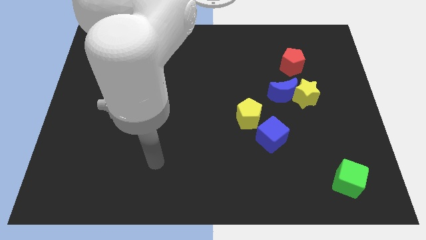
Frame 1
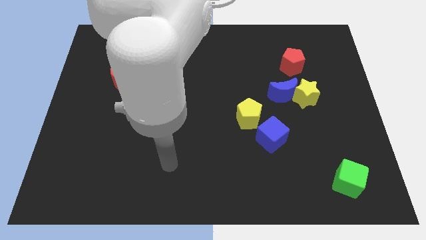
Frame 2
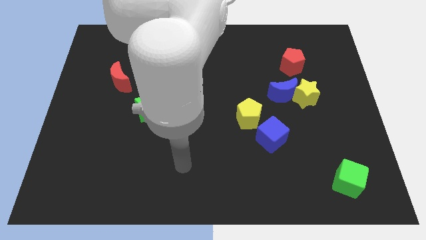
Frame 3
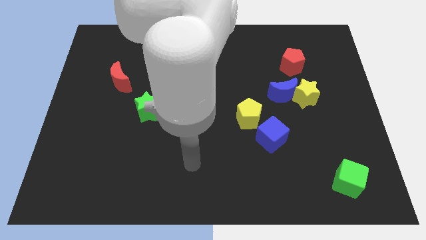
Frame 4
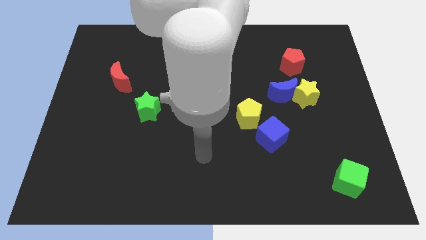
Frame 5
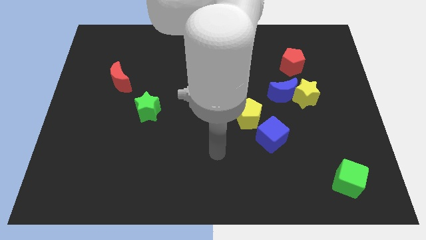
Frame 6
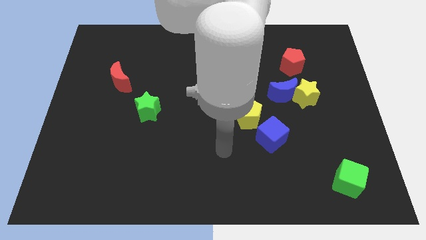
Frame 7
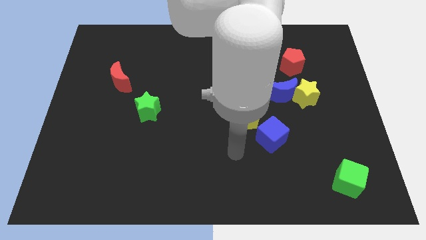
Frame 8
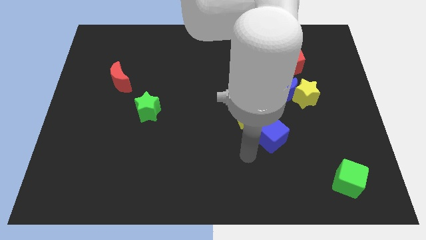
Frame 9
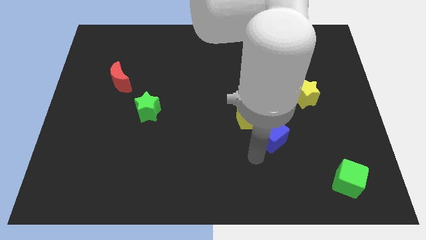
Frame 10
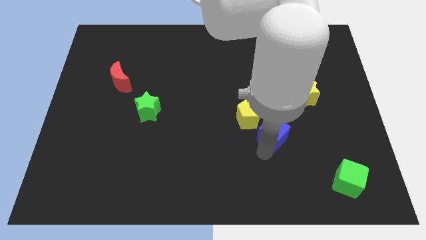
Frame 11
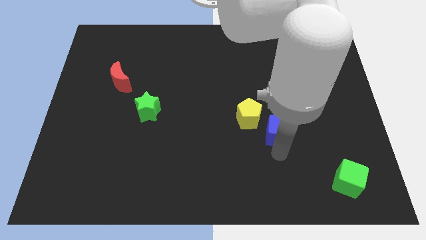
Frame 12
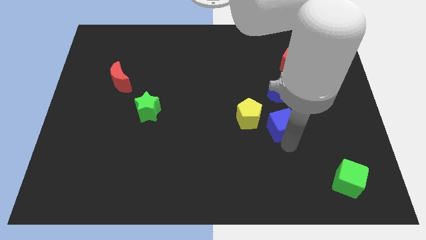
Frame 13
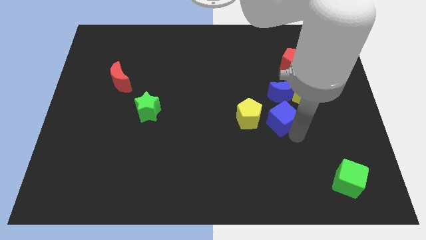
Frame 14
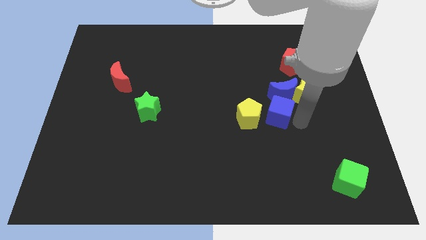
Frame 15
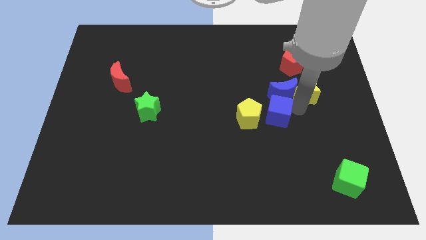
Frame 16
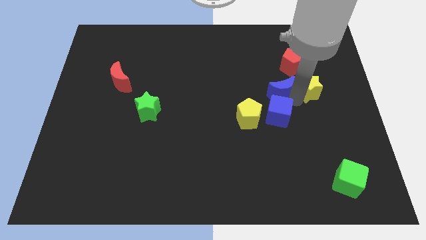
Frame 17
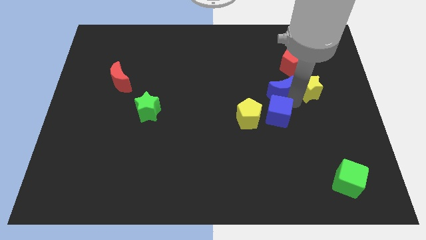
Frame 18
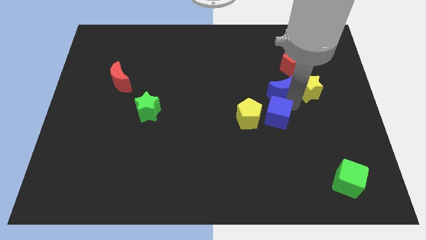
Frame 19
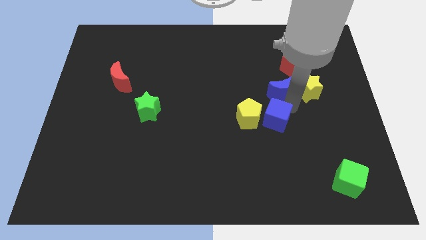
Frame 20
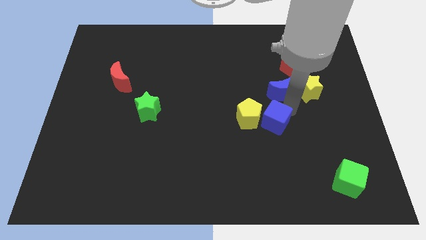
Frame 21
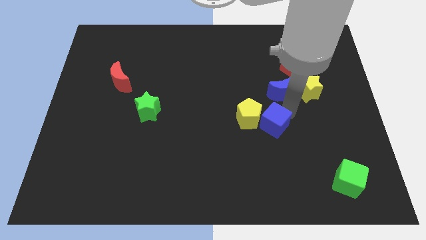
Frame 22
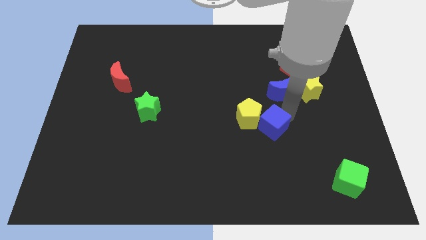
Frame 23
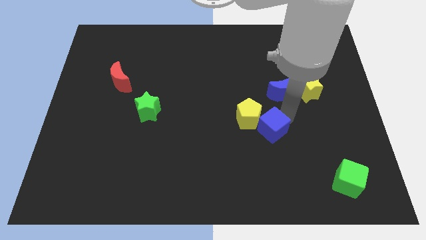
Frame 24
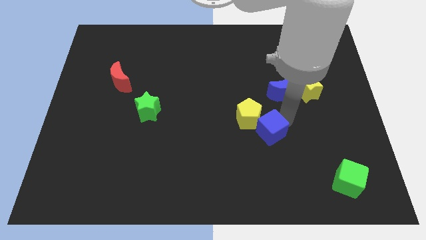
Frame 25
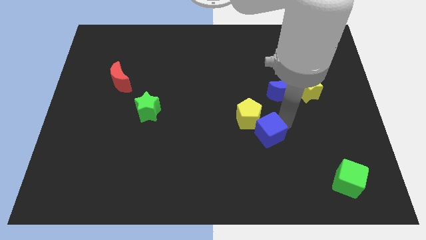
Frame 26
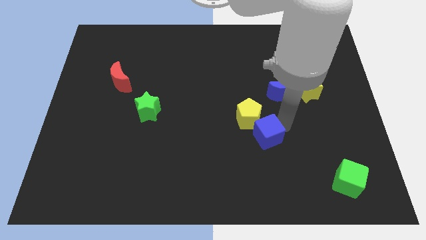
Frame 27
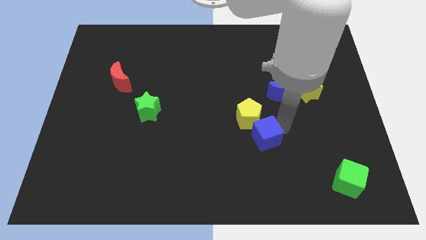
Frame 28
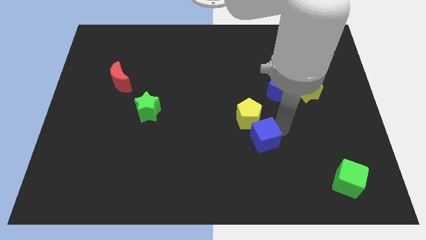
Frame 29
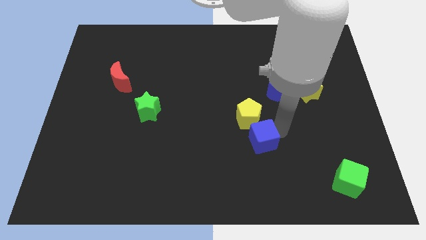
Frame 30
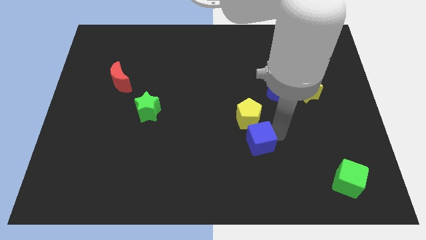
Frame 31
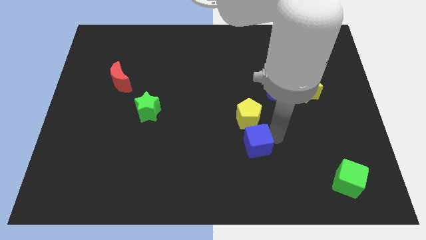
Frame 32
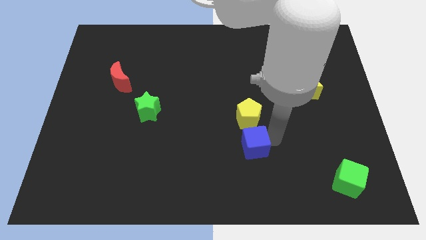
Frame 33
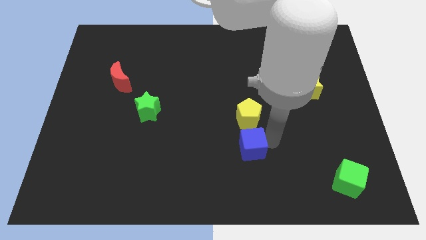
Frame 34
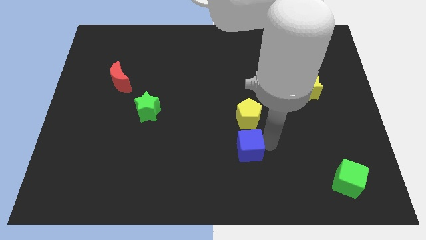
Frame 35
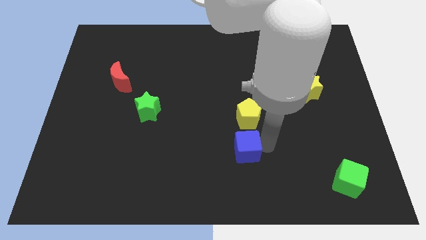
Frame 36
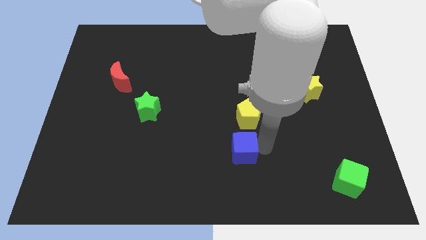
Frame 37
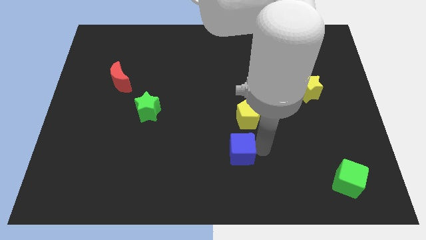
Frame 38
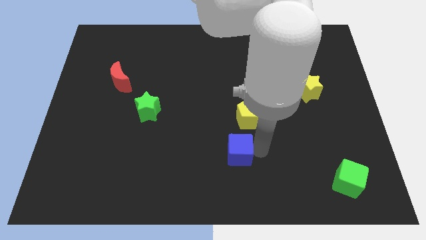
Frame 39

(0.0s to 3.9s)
slide the blue cube to the left a little

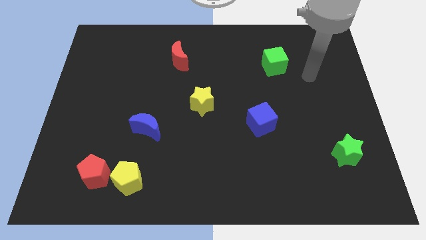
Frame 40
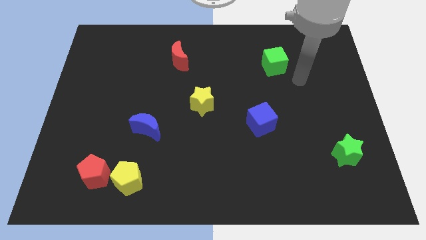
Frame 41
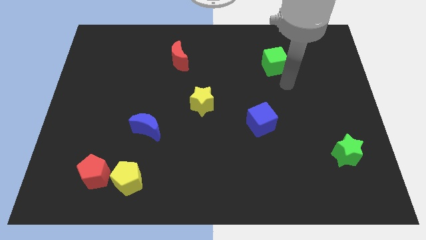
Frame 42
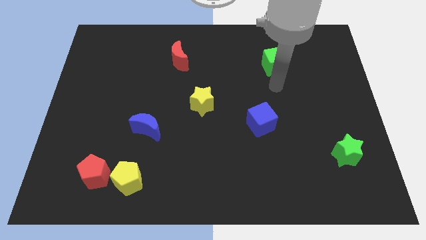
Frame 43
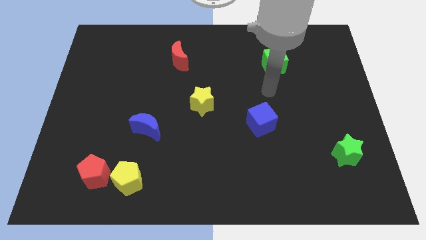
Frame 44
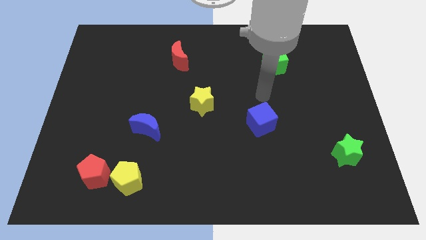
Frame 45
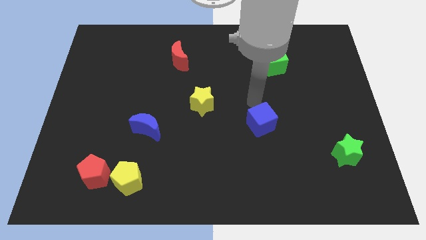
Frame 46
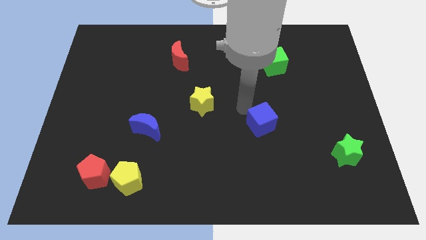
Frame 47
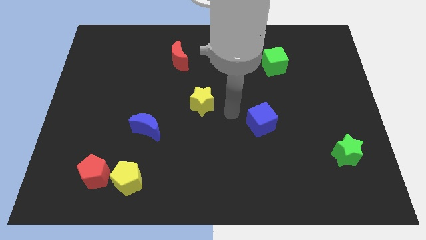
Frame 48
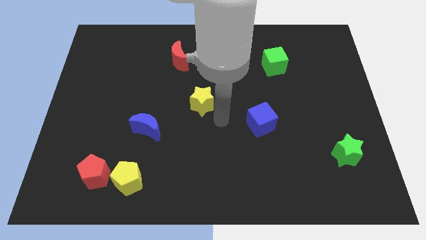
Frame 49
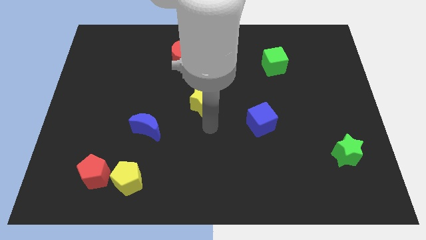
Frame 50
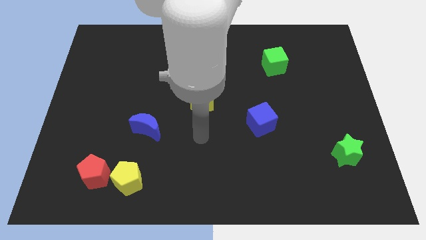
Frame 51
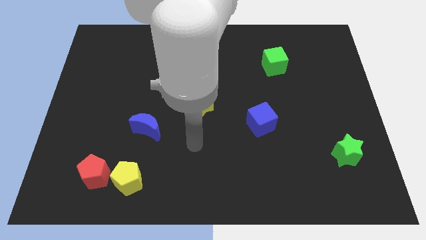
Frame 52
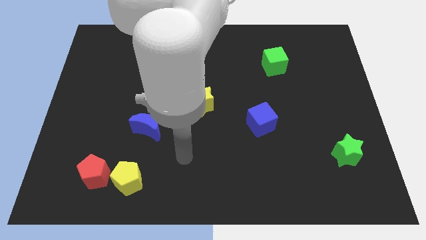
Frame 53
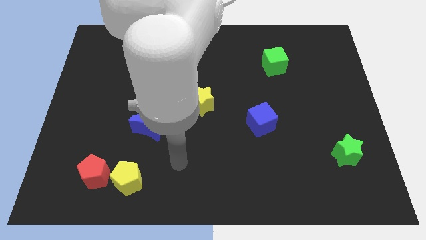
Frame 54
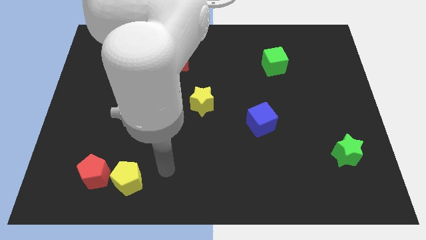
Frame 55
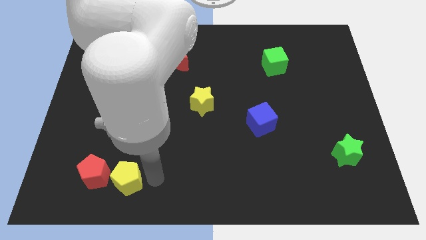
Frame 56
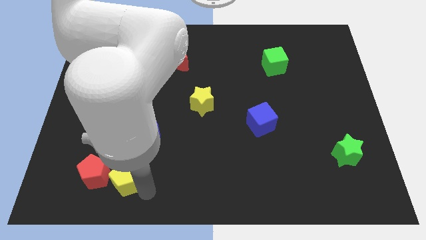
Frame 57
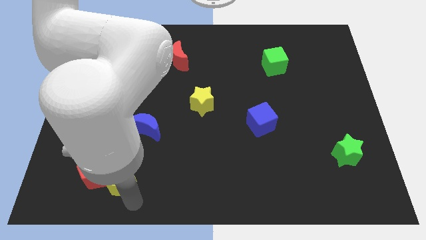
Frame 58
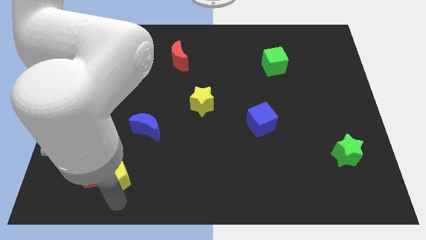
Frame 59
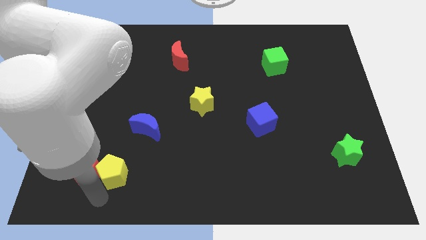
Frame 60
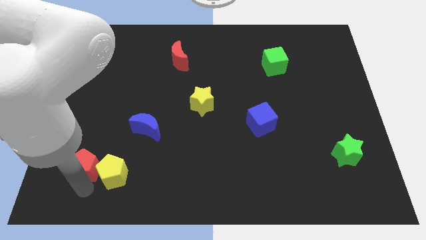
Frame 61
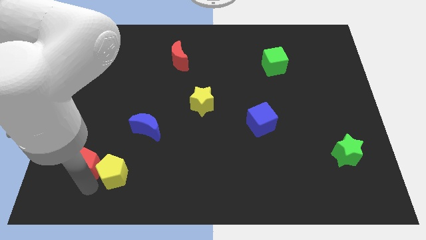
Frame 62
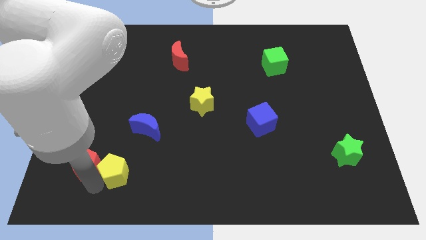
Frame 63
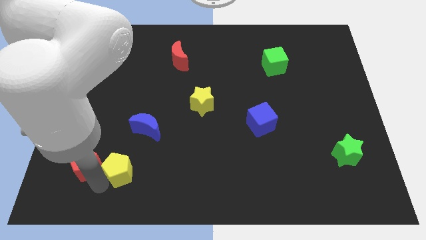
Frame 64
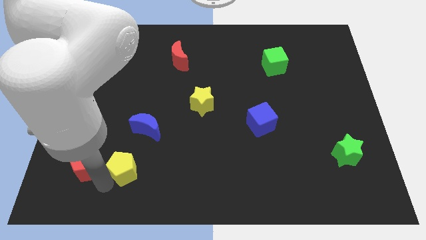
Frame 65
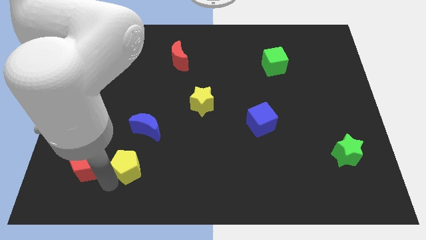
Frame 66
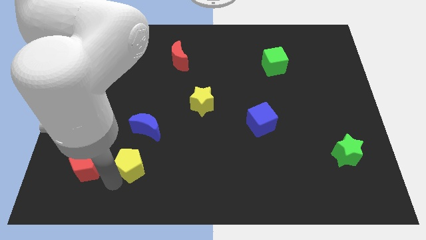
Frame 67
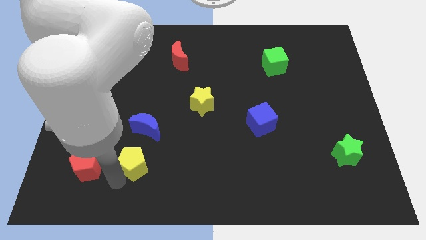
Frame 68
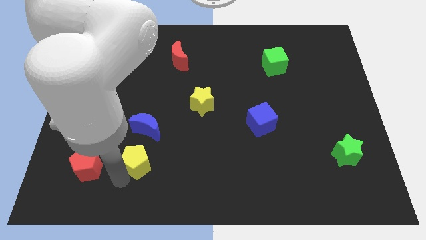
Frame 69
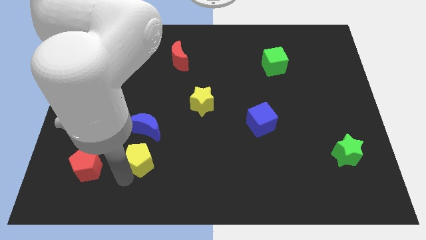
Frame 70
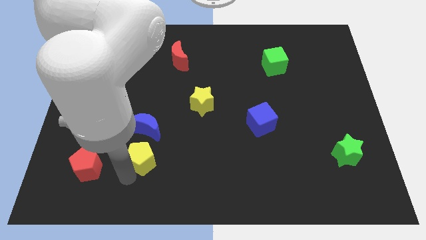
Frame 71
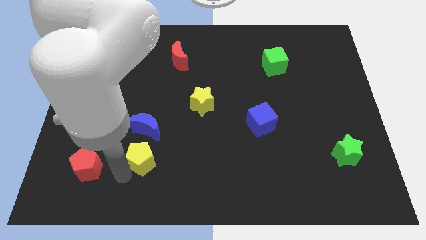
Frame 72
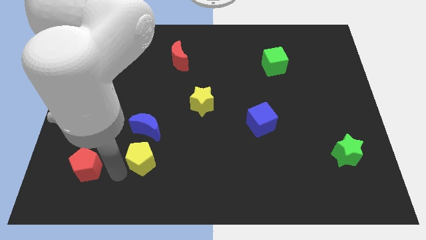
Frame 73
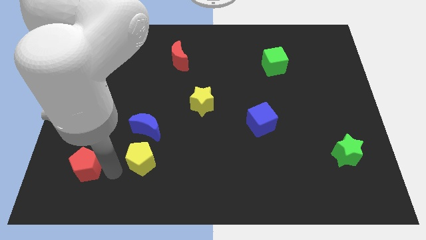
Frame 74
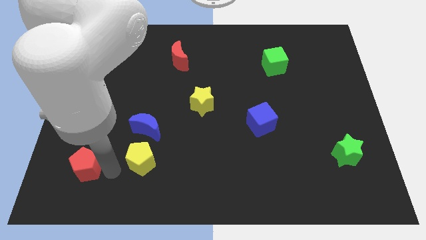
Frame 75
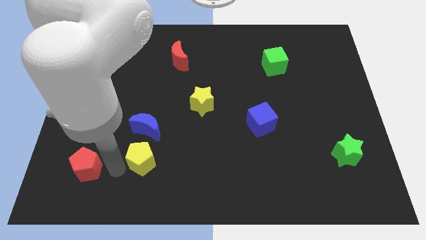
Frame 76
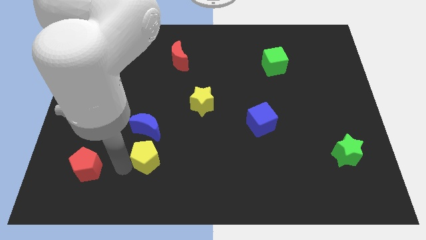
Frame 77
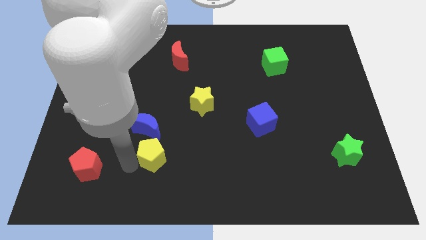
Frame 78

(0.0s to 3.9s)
slightly push the yellow pentagon diagonally upwards and right

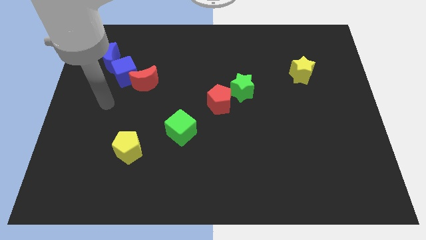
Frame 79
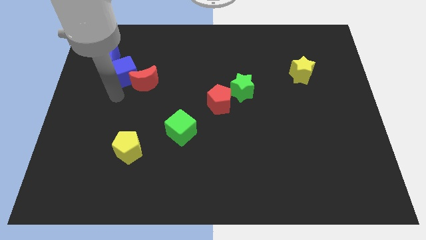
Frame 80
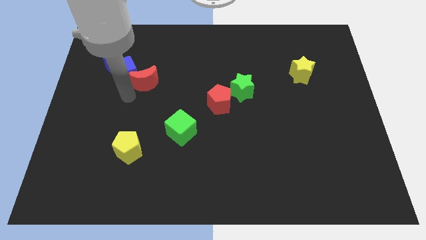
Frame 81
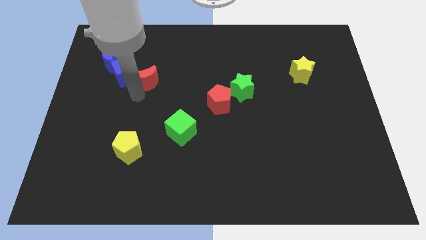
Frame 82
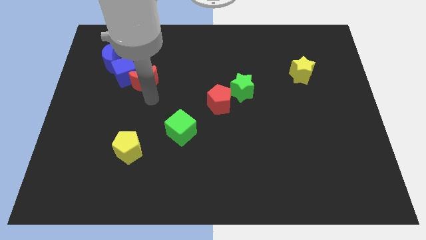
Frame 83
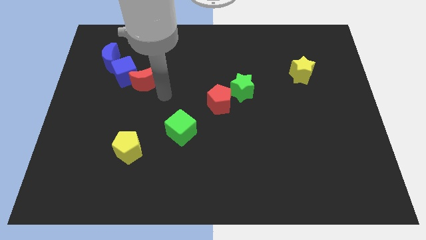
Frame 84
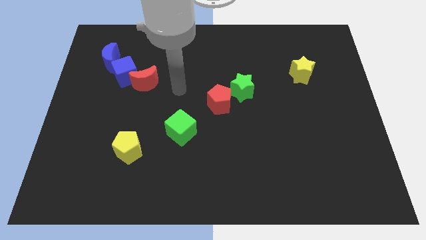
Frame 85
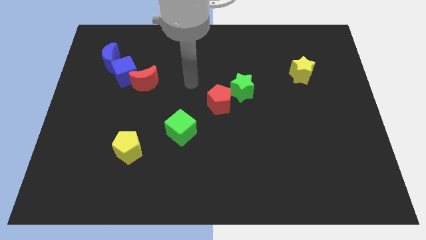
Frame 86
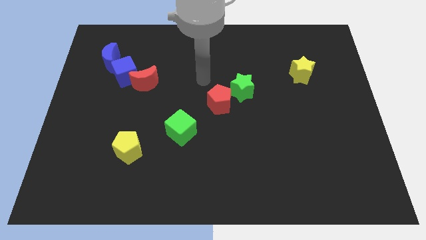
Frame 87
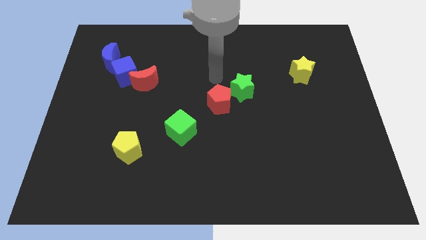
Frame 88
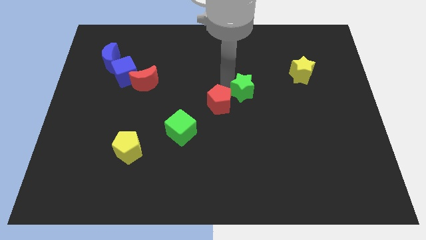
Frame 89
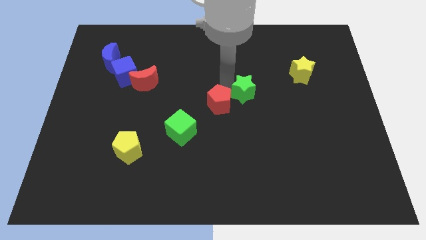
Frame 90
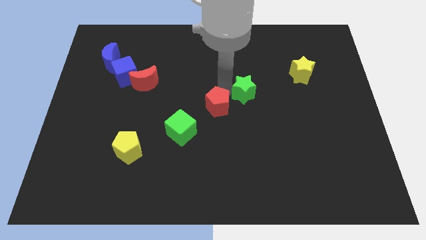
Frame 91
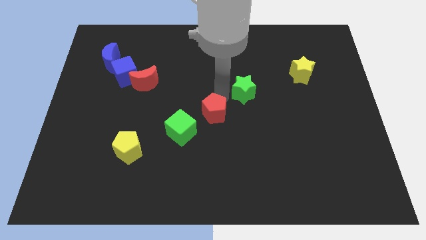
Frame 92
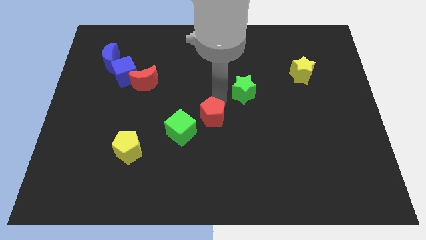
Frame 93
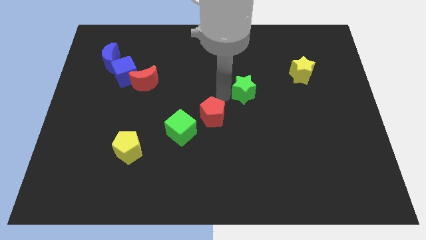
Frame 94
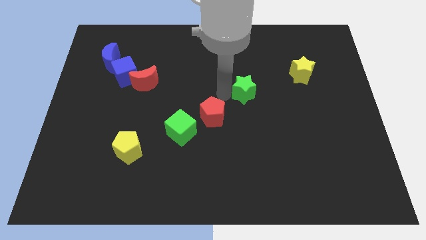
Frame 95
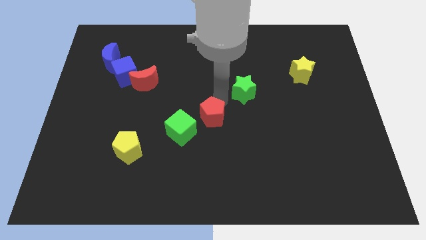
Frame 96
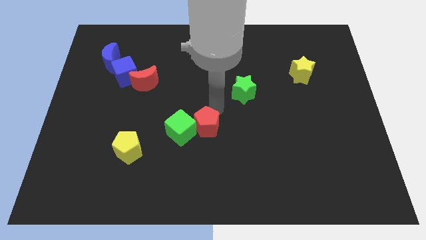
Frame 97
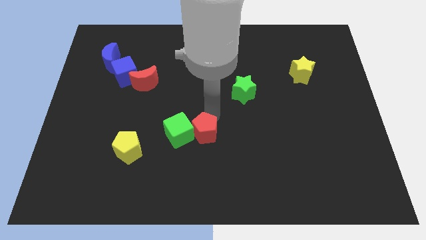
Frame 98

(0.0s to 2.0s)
slightly slide the red pentagon down and then left
